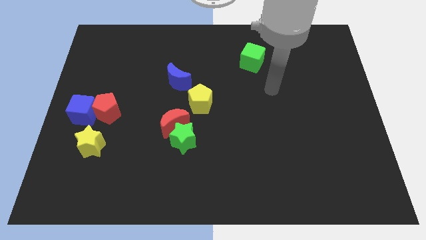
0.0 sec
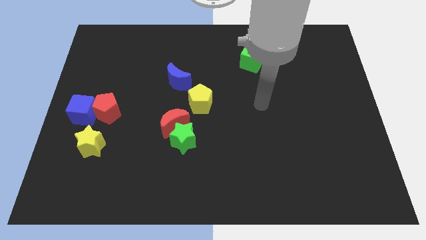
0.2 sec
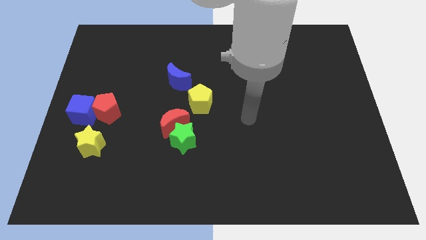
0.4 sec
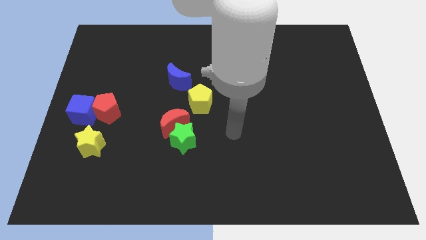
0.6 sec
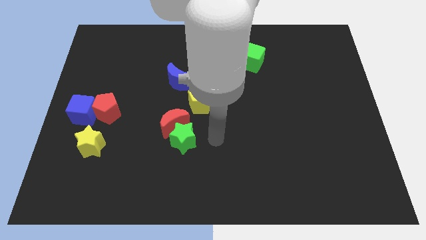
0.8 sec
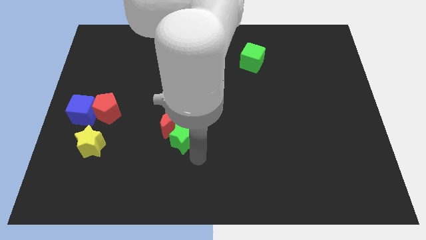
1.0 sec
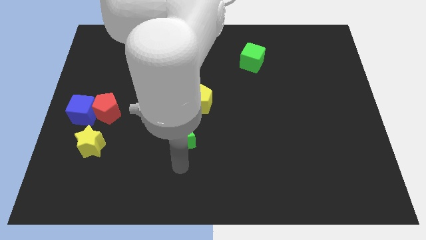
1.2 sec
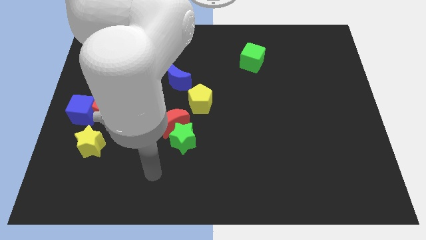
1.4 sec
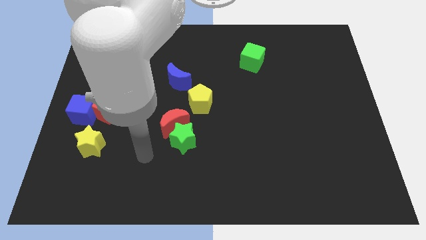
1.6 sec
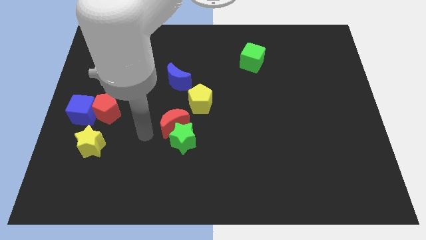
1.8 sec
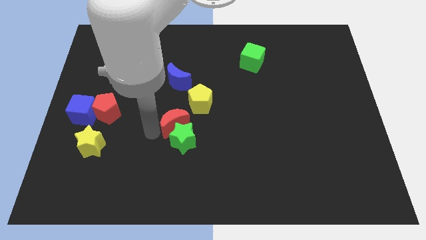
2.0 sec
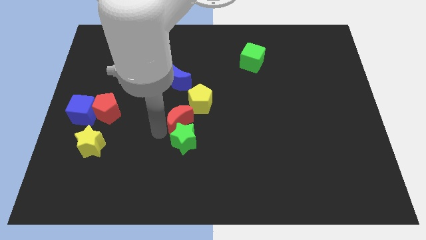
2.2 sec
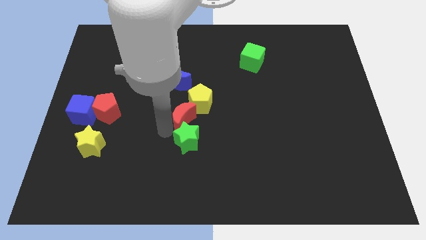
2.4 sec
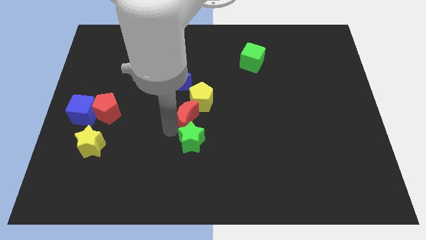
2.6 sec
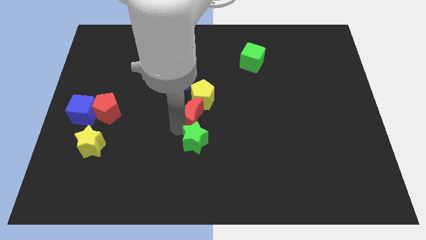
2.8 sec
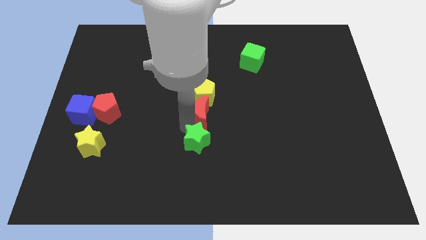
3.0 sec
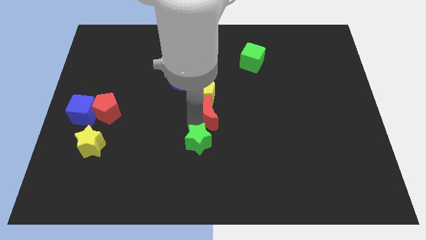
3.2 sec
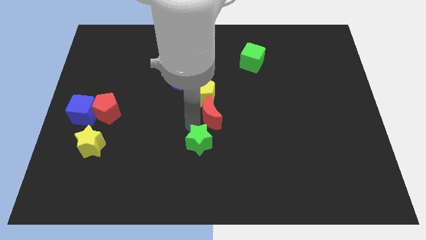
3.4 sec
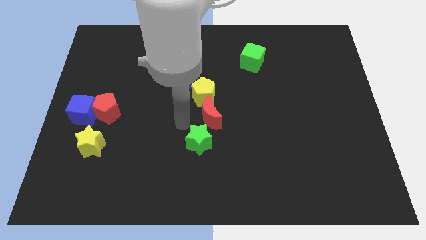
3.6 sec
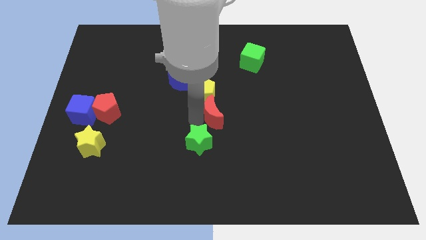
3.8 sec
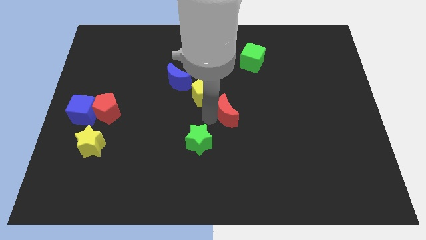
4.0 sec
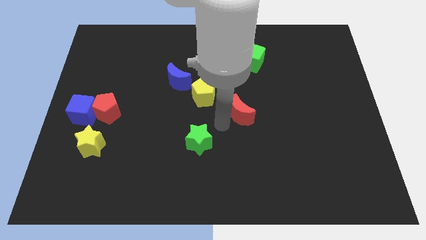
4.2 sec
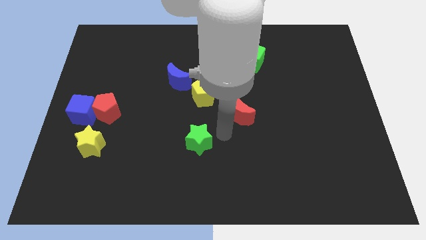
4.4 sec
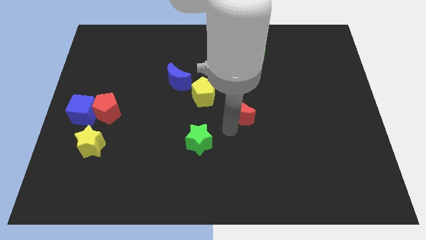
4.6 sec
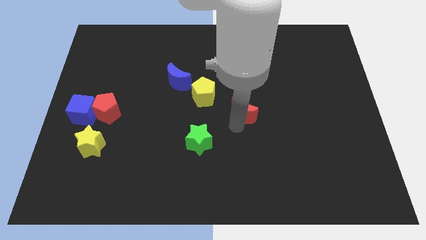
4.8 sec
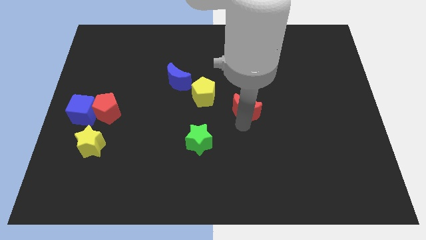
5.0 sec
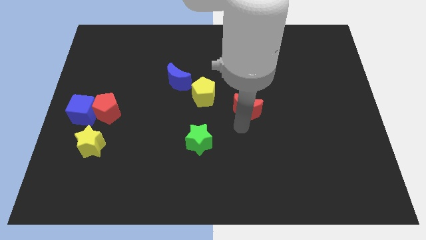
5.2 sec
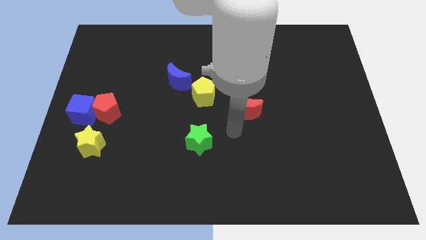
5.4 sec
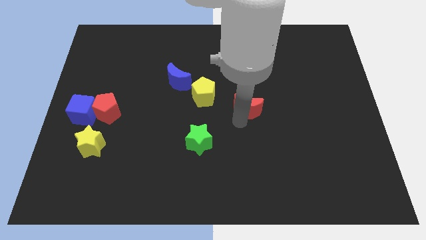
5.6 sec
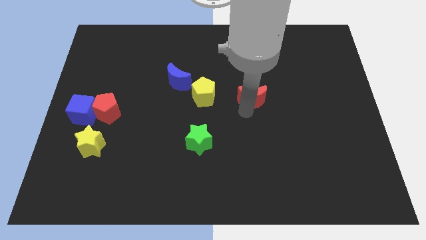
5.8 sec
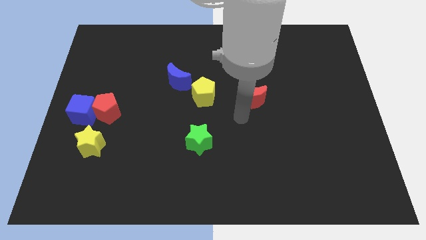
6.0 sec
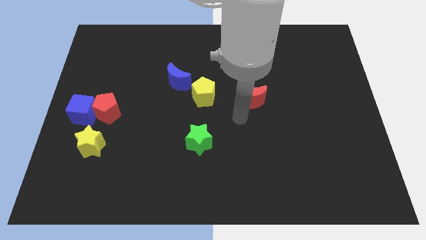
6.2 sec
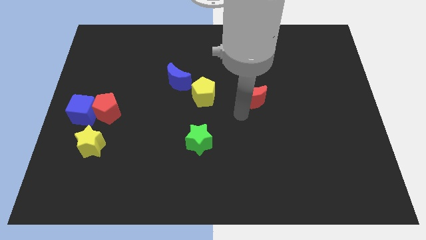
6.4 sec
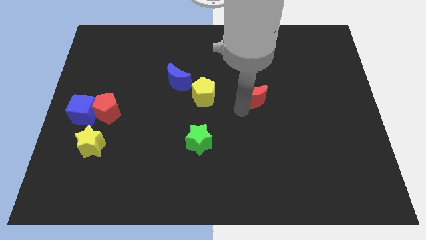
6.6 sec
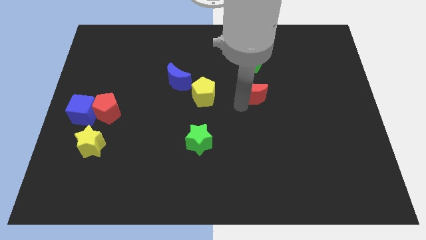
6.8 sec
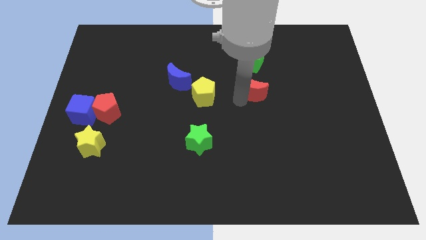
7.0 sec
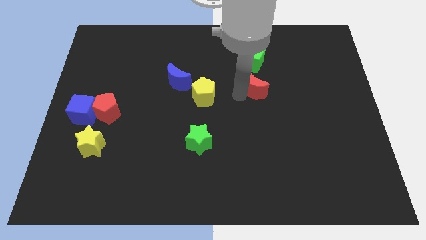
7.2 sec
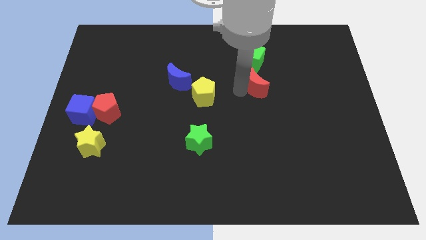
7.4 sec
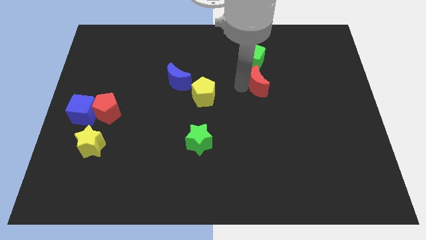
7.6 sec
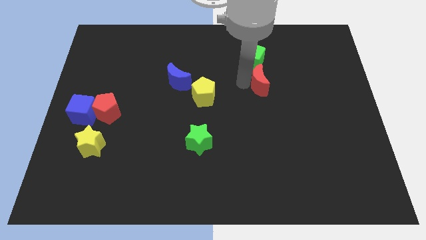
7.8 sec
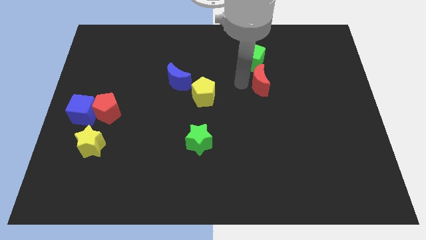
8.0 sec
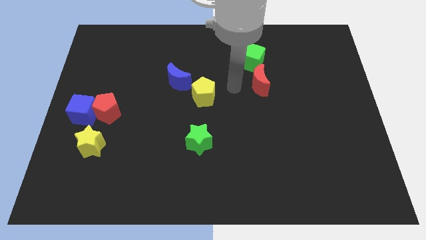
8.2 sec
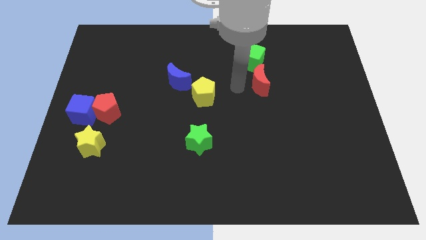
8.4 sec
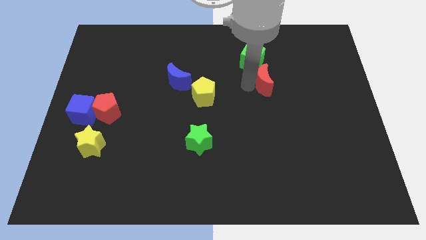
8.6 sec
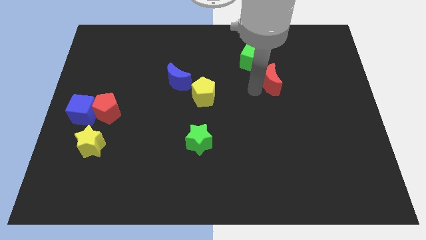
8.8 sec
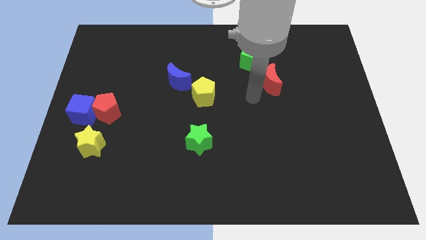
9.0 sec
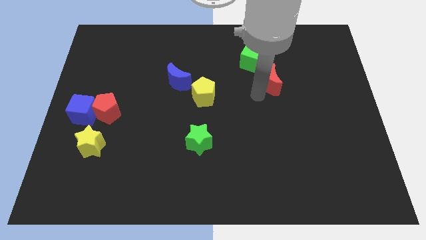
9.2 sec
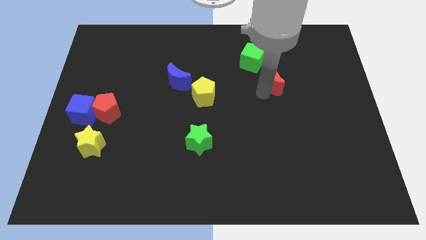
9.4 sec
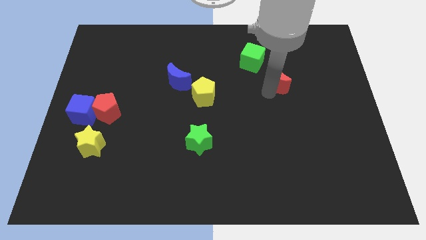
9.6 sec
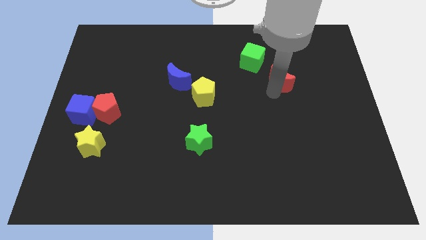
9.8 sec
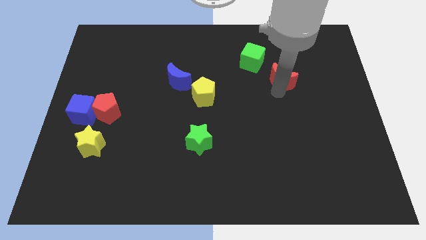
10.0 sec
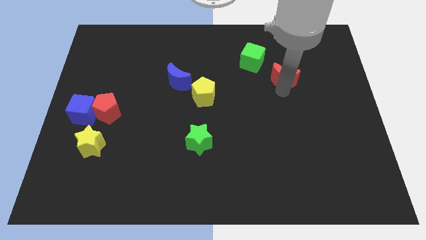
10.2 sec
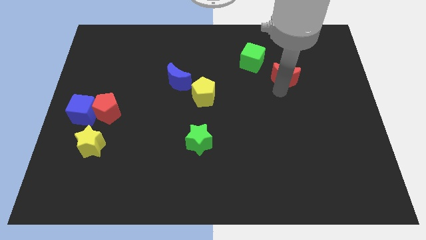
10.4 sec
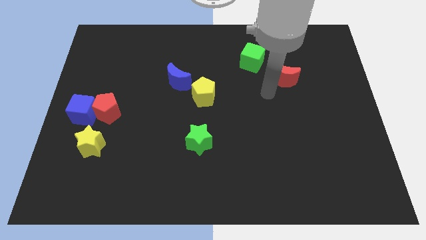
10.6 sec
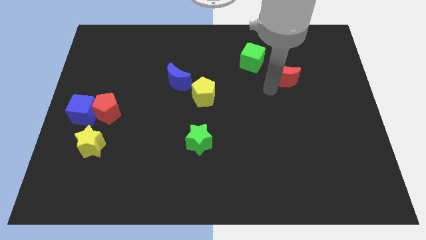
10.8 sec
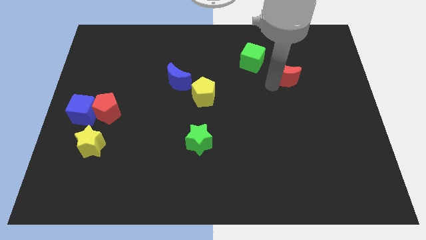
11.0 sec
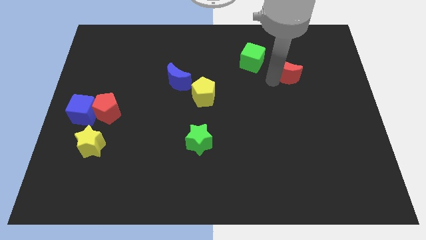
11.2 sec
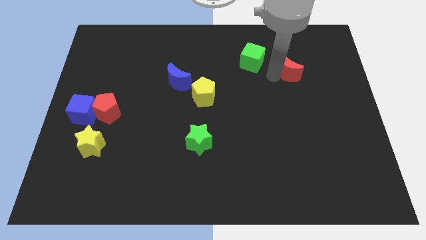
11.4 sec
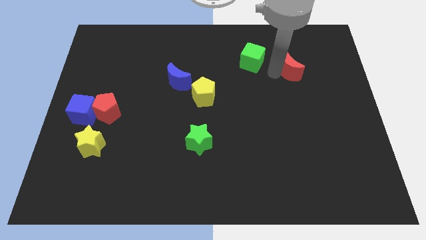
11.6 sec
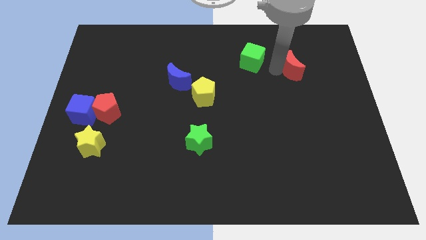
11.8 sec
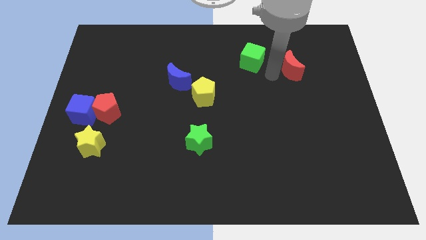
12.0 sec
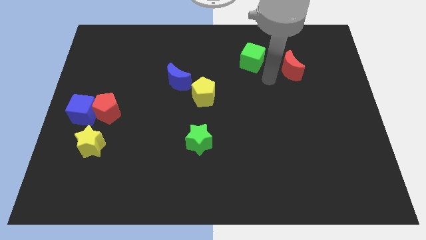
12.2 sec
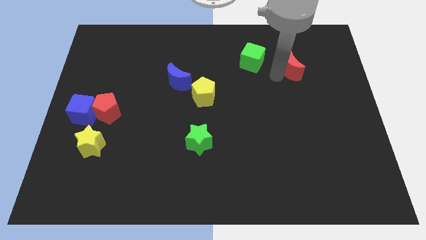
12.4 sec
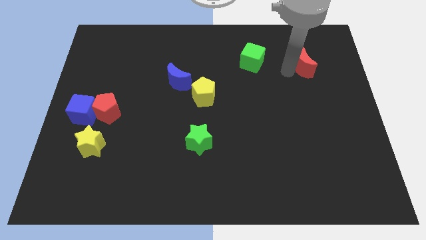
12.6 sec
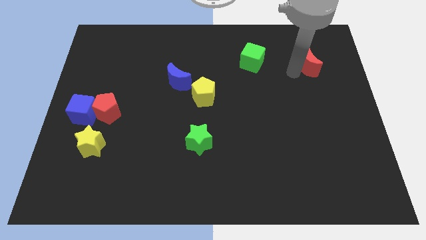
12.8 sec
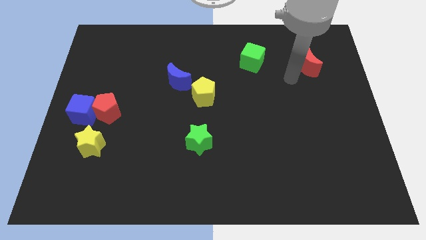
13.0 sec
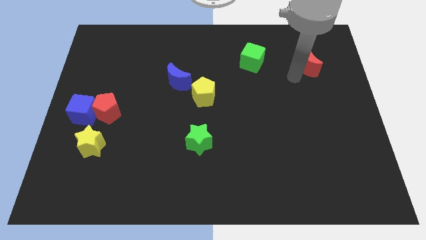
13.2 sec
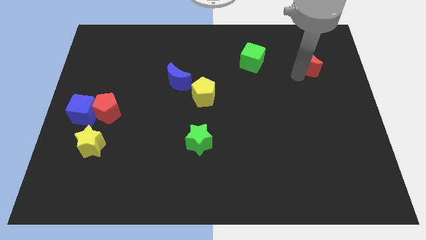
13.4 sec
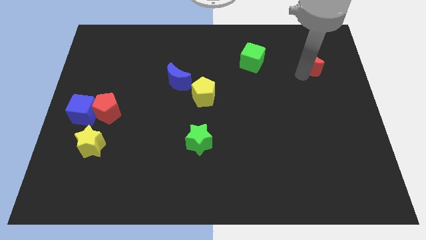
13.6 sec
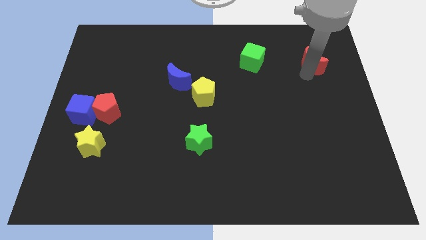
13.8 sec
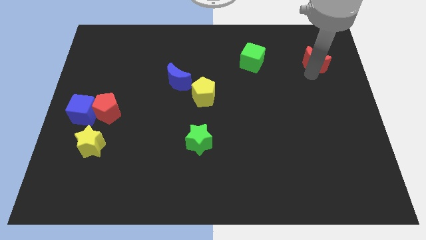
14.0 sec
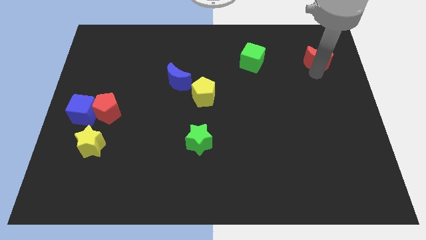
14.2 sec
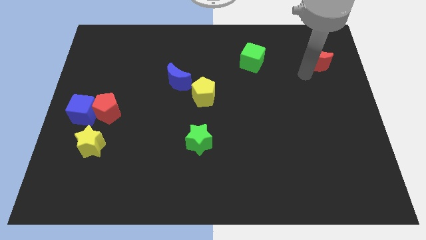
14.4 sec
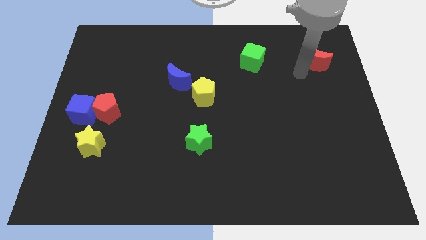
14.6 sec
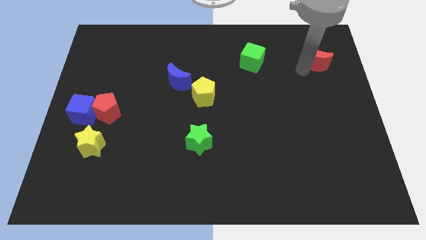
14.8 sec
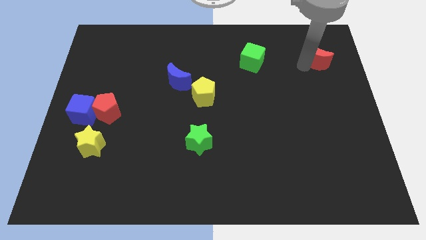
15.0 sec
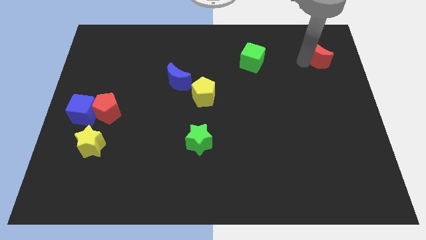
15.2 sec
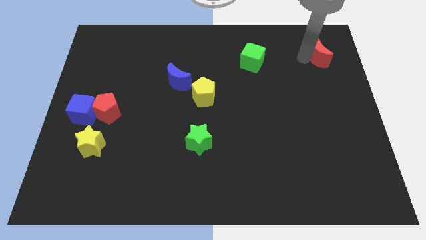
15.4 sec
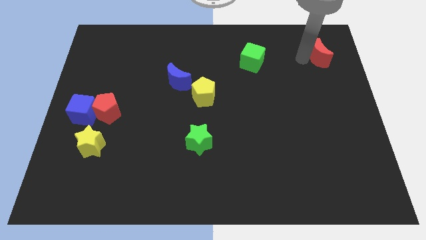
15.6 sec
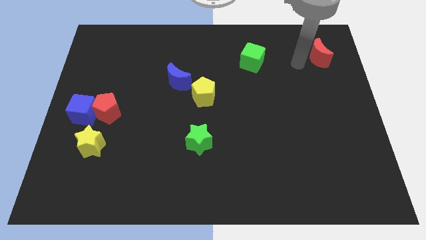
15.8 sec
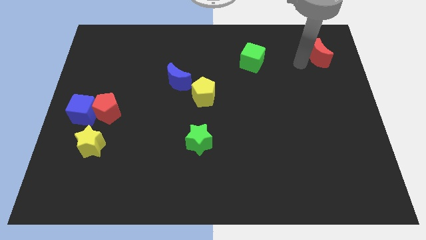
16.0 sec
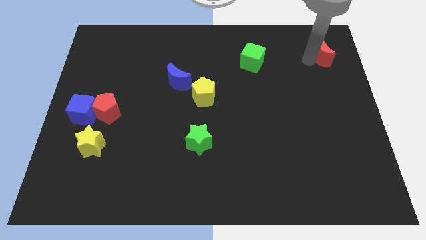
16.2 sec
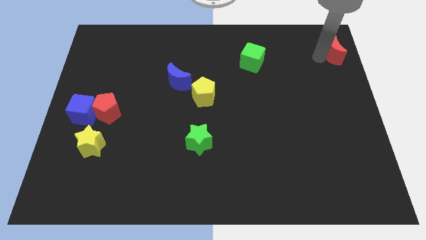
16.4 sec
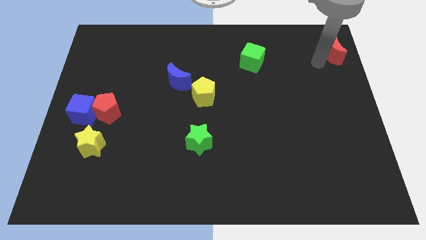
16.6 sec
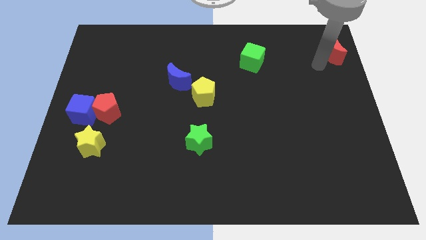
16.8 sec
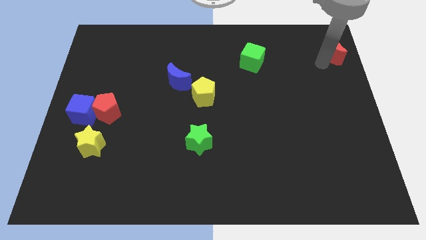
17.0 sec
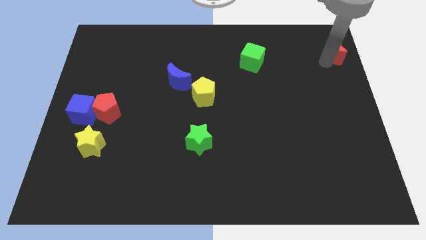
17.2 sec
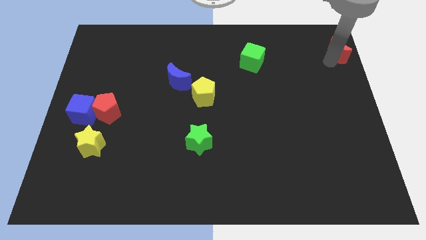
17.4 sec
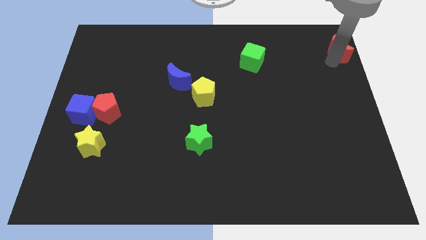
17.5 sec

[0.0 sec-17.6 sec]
slide the red moon to the upper right corner
